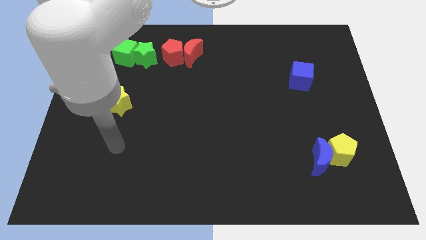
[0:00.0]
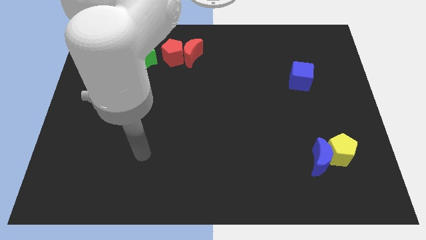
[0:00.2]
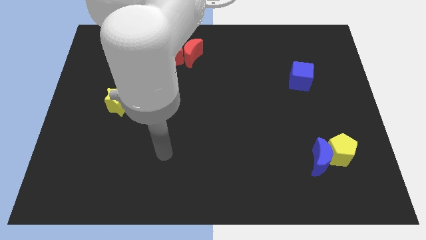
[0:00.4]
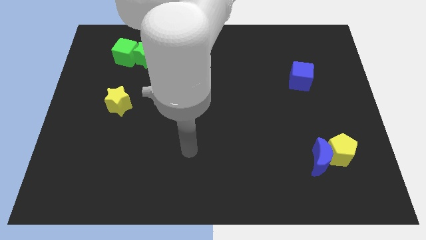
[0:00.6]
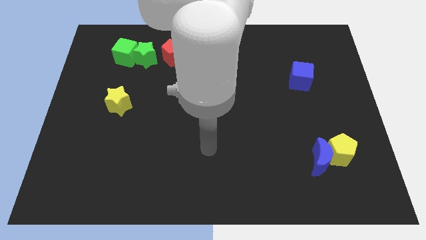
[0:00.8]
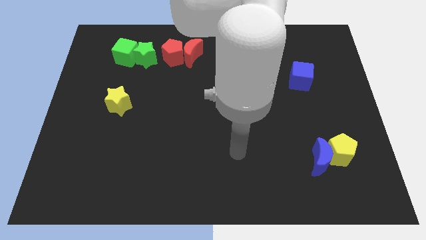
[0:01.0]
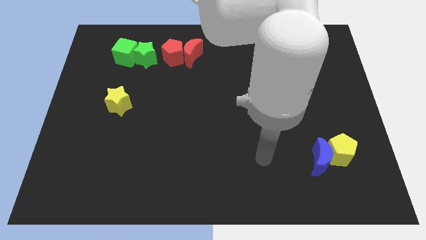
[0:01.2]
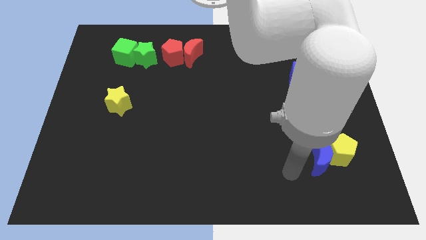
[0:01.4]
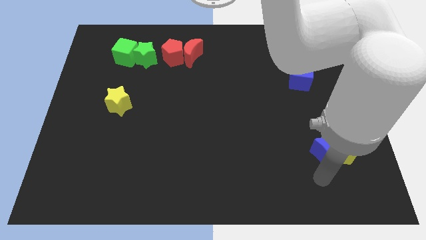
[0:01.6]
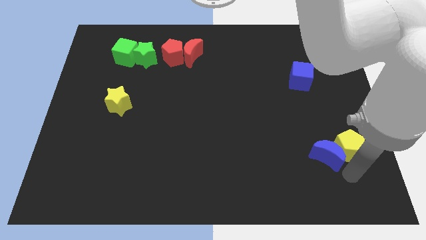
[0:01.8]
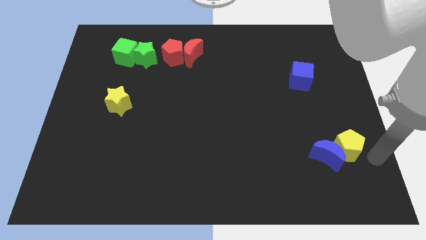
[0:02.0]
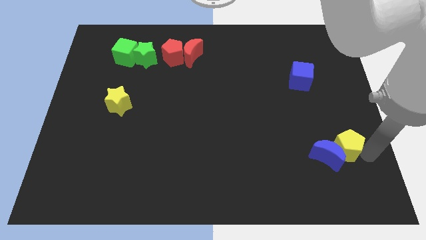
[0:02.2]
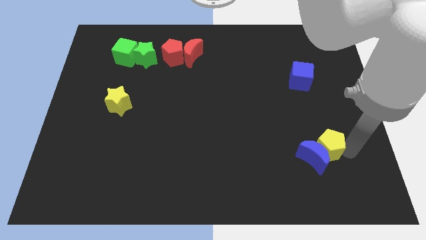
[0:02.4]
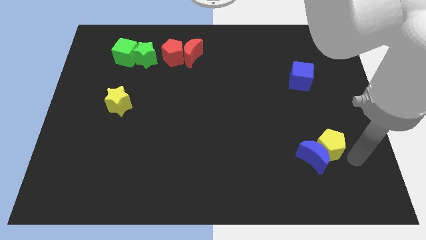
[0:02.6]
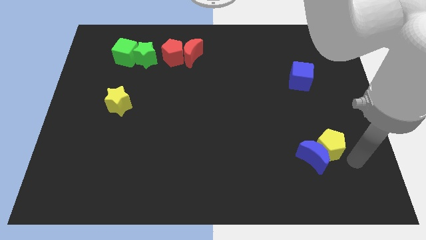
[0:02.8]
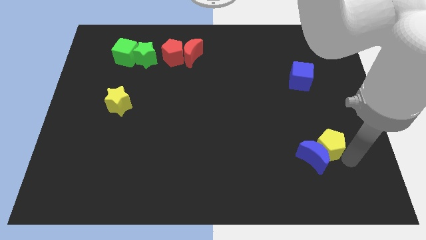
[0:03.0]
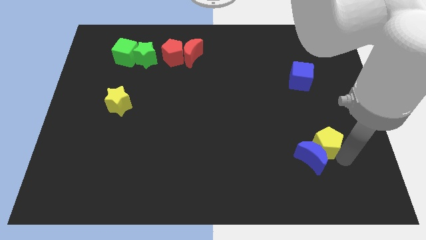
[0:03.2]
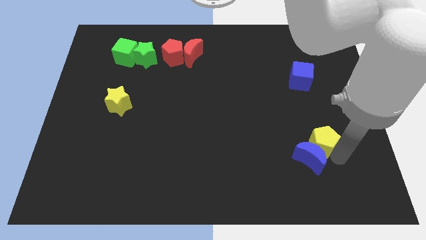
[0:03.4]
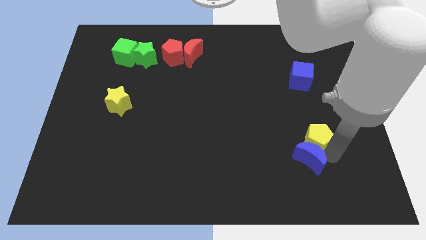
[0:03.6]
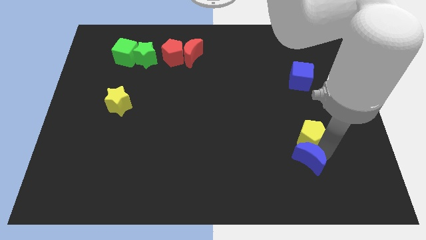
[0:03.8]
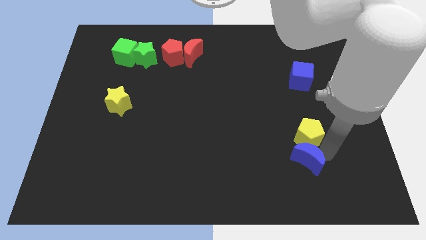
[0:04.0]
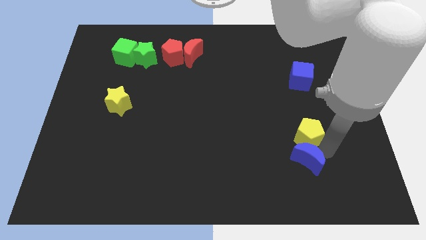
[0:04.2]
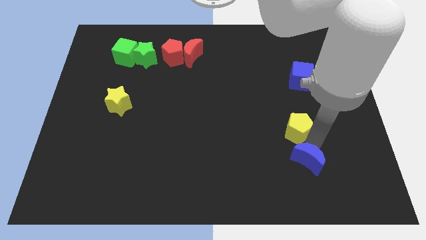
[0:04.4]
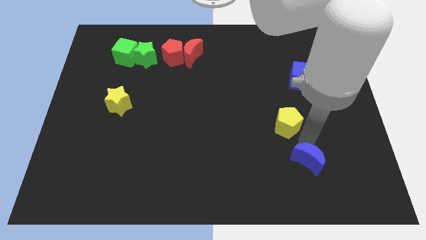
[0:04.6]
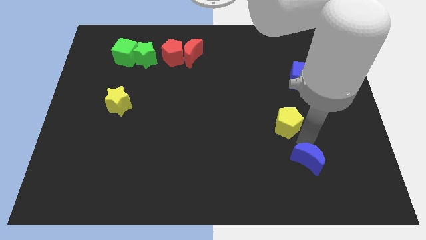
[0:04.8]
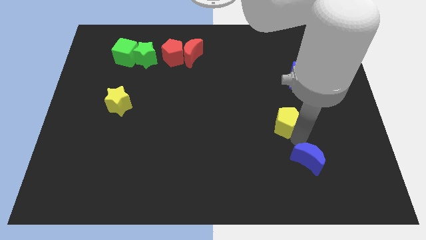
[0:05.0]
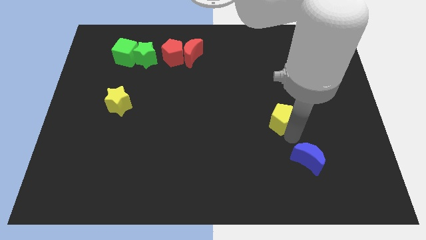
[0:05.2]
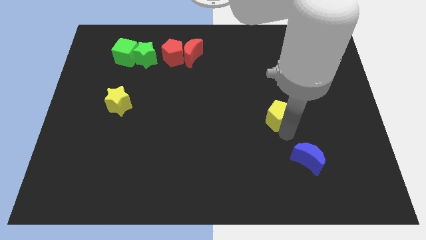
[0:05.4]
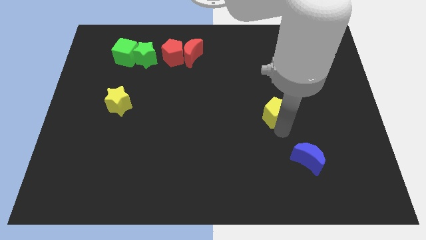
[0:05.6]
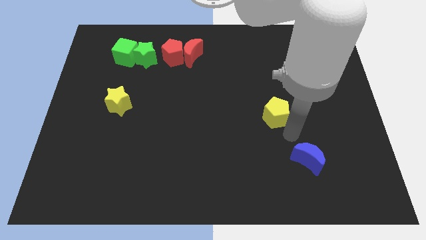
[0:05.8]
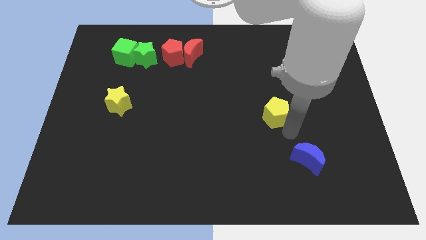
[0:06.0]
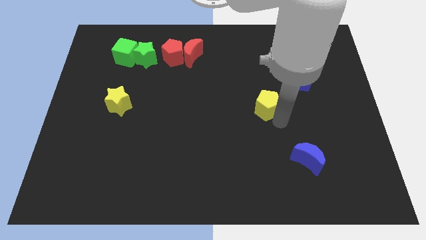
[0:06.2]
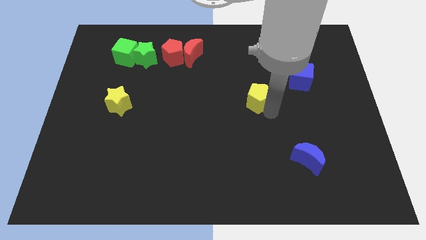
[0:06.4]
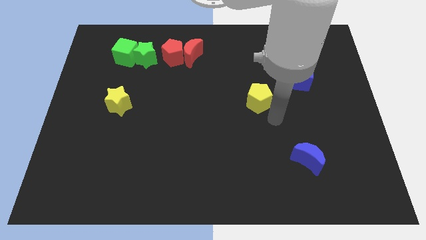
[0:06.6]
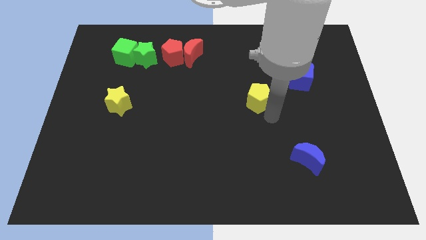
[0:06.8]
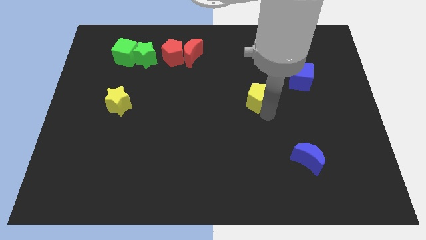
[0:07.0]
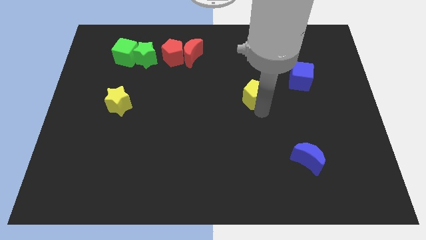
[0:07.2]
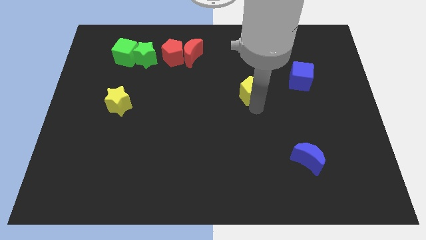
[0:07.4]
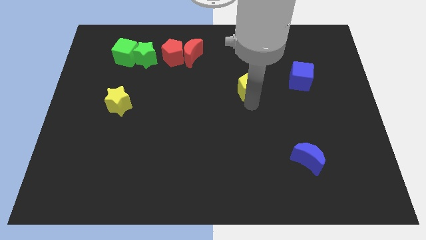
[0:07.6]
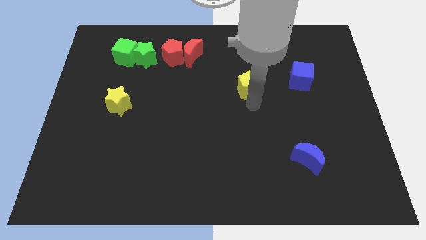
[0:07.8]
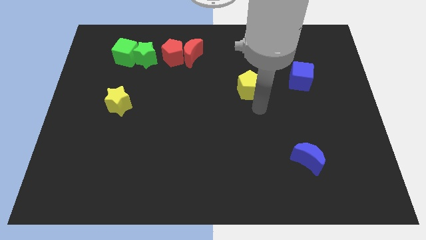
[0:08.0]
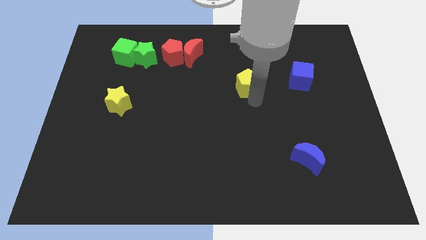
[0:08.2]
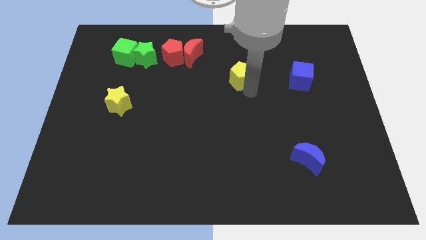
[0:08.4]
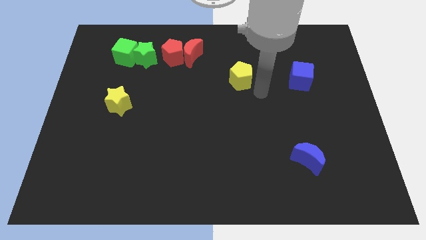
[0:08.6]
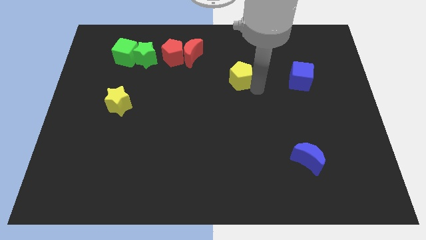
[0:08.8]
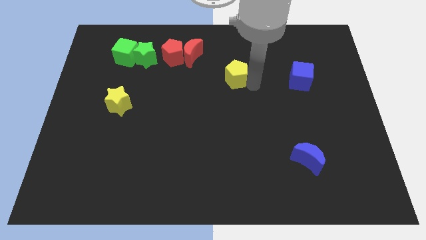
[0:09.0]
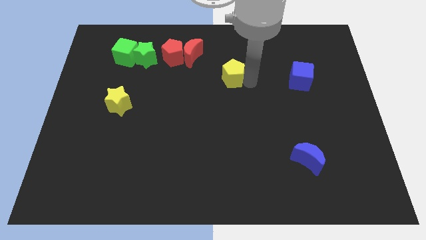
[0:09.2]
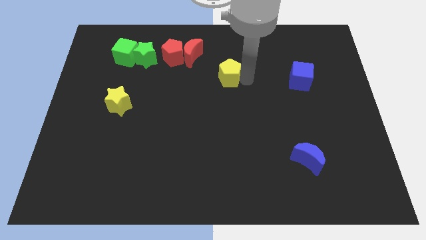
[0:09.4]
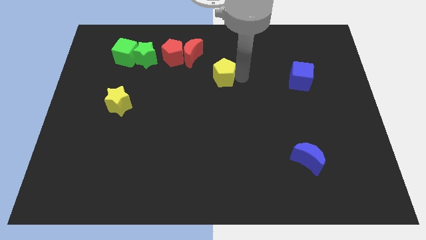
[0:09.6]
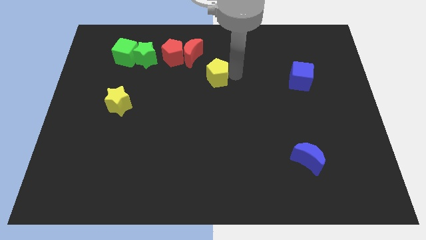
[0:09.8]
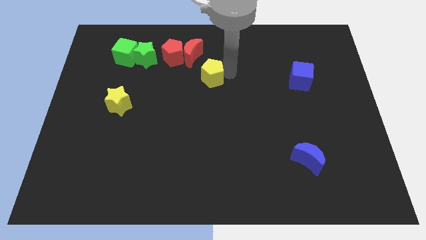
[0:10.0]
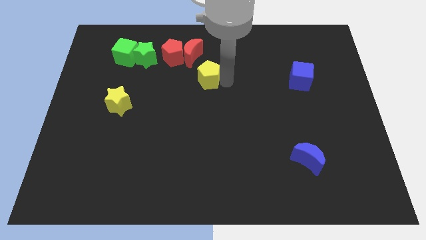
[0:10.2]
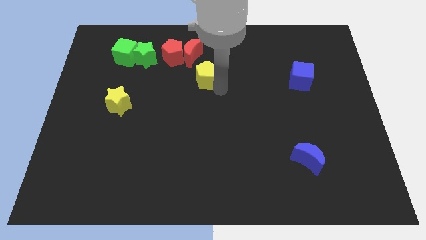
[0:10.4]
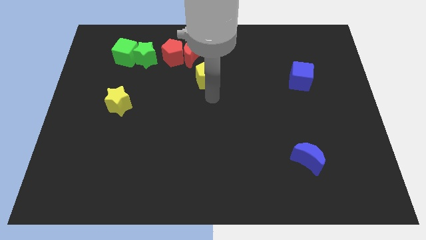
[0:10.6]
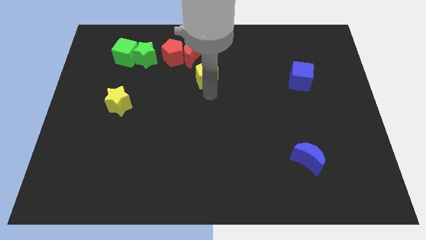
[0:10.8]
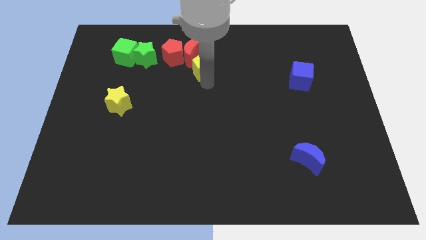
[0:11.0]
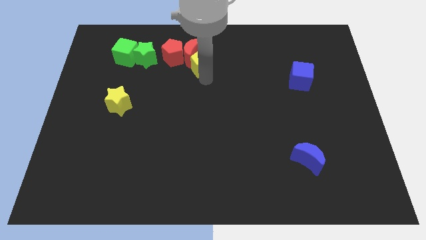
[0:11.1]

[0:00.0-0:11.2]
push the yellow pentagon to the red moon
